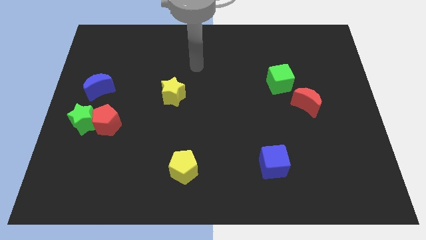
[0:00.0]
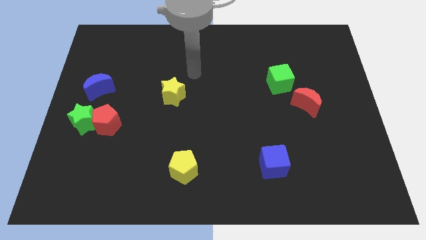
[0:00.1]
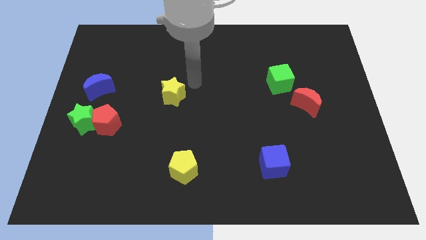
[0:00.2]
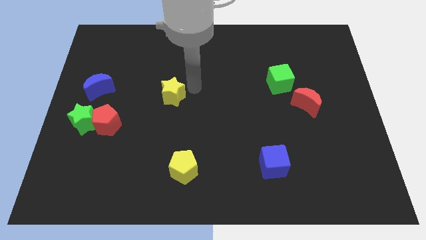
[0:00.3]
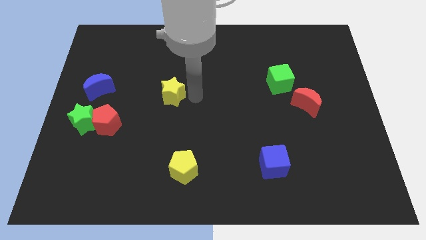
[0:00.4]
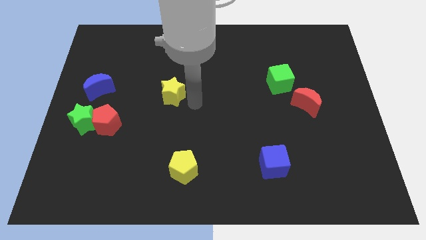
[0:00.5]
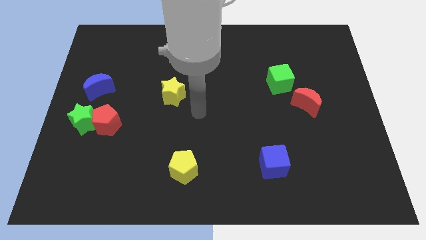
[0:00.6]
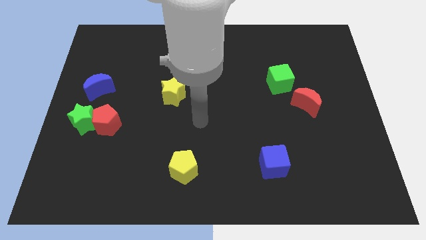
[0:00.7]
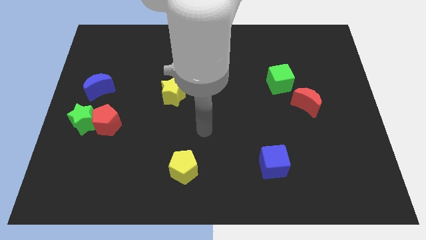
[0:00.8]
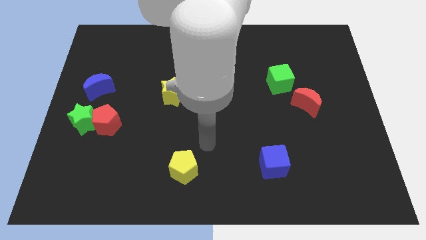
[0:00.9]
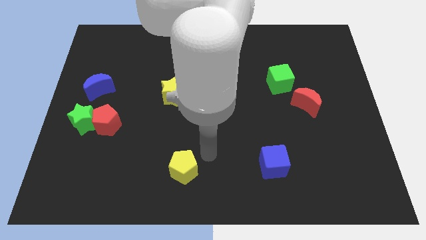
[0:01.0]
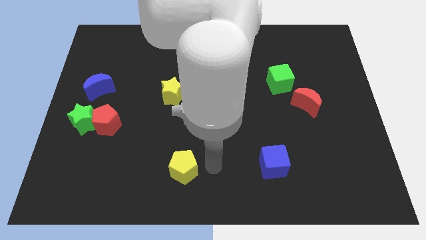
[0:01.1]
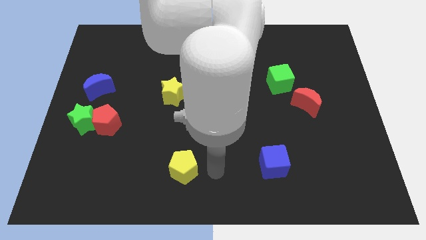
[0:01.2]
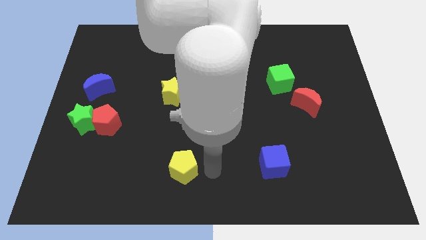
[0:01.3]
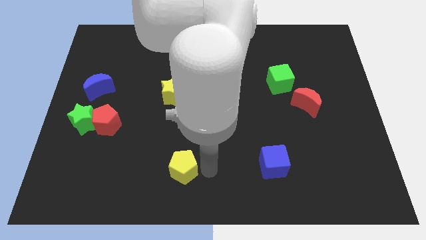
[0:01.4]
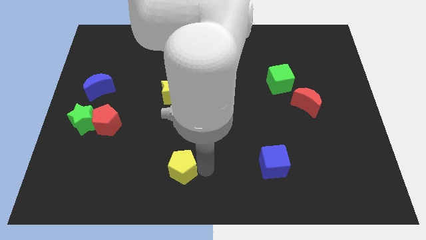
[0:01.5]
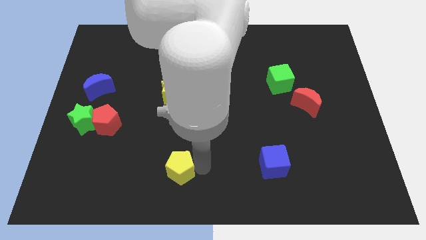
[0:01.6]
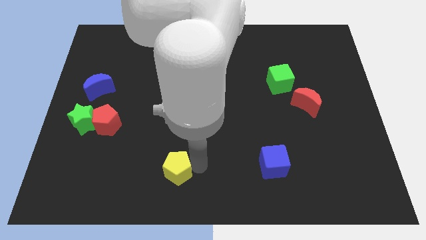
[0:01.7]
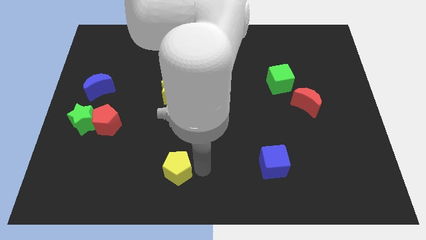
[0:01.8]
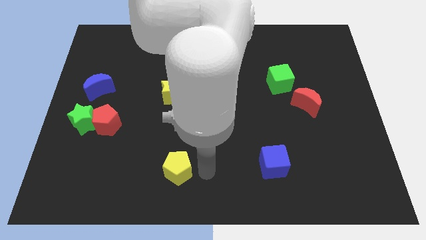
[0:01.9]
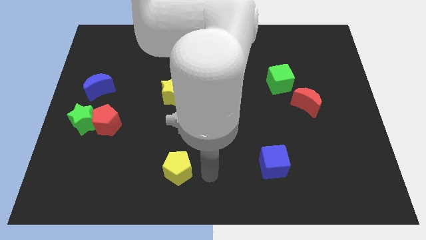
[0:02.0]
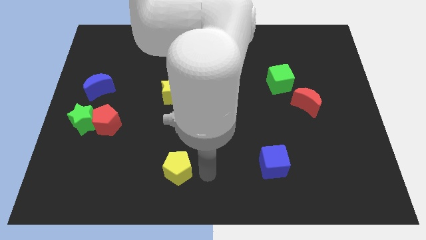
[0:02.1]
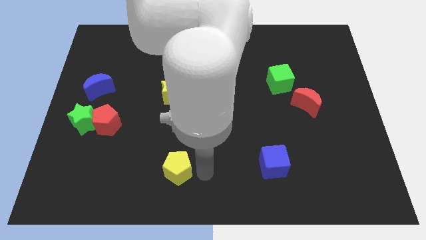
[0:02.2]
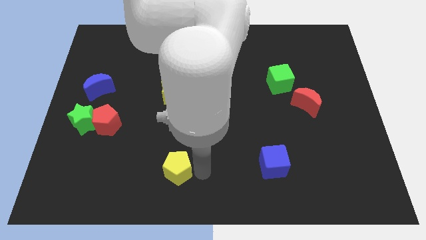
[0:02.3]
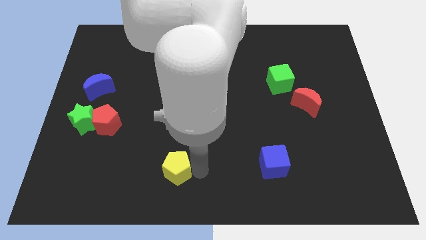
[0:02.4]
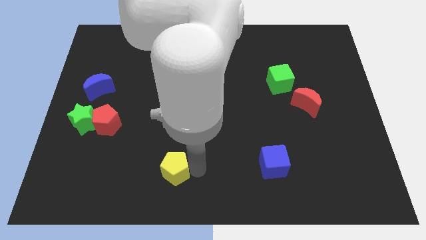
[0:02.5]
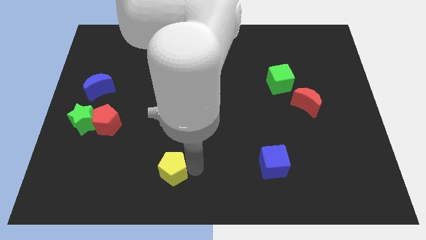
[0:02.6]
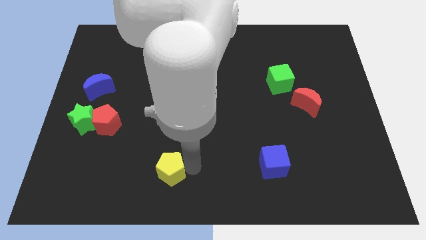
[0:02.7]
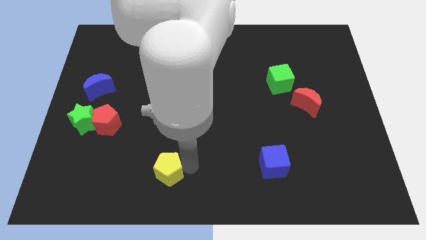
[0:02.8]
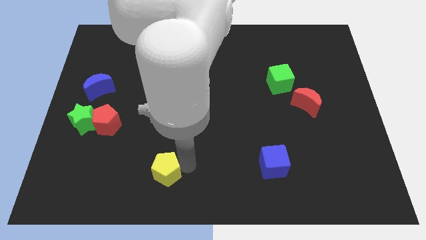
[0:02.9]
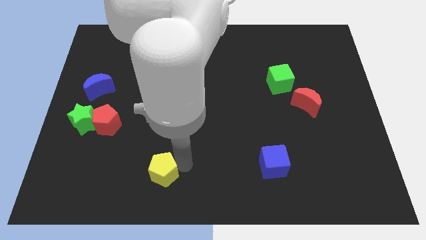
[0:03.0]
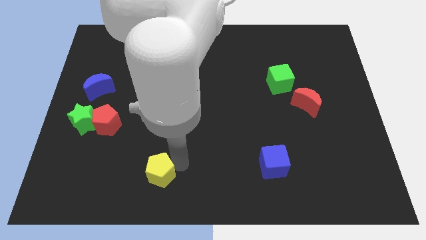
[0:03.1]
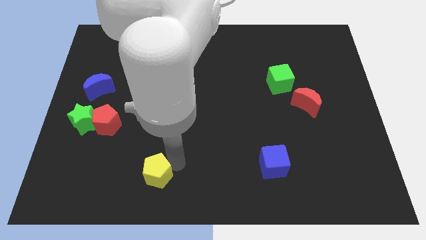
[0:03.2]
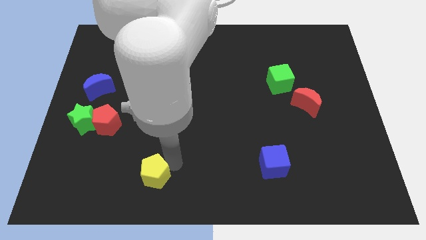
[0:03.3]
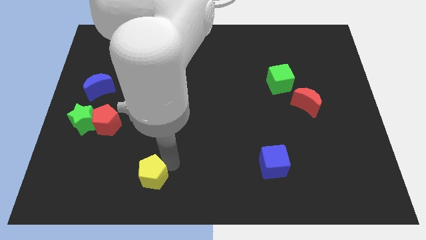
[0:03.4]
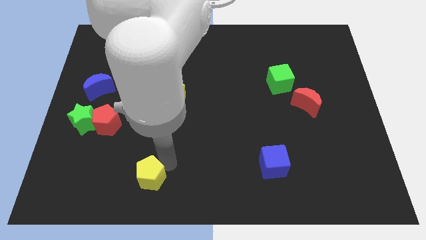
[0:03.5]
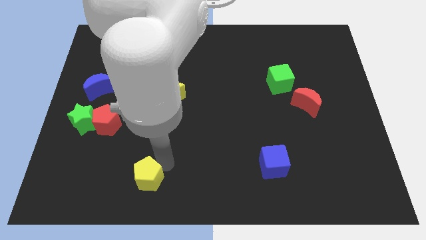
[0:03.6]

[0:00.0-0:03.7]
slightly move the yellow pentagon to the left

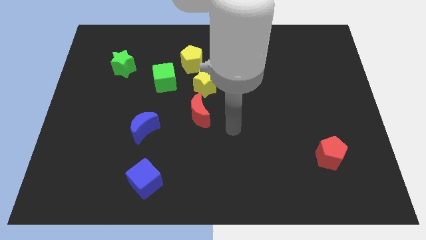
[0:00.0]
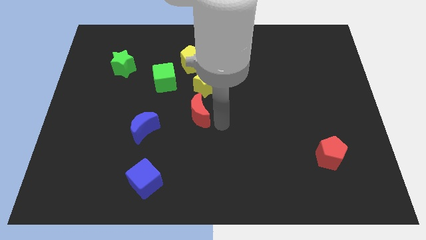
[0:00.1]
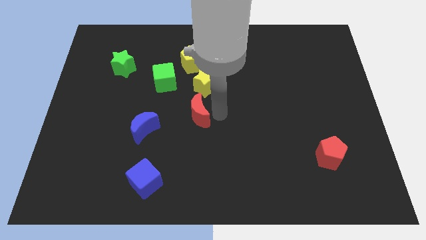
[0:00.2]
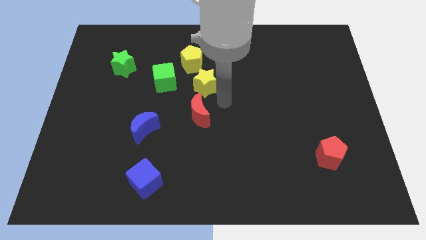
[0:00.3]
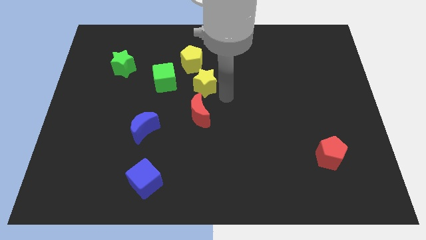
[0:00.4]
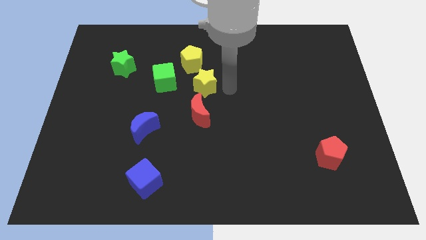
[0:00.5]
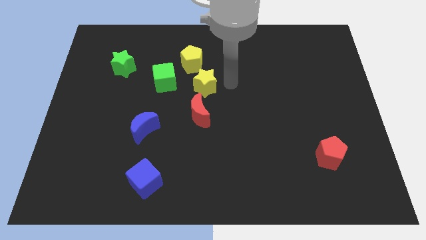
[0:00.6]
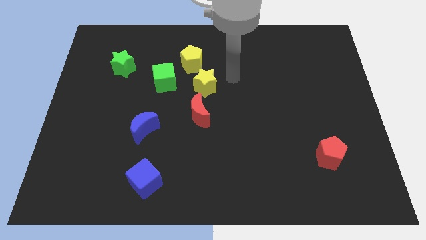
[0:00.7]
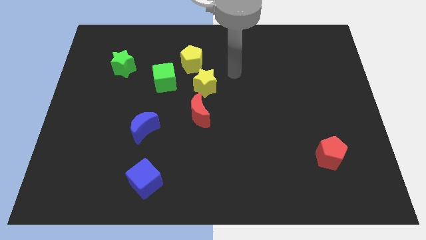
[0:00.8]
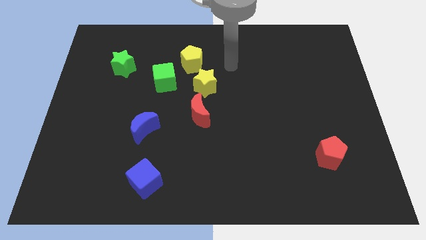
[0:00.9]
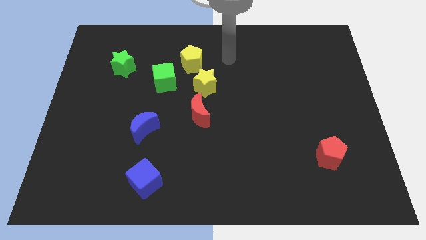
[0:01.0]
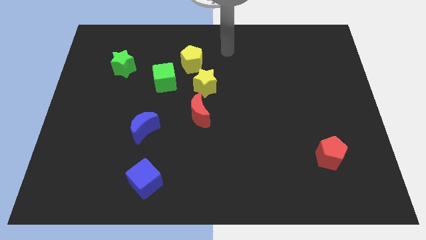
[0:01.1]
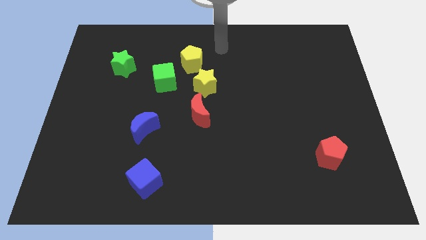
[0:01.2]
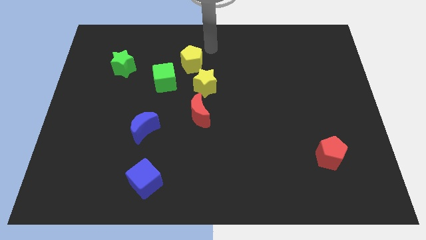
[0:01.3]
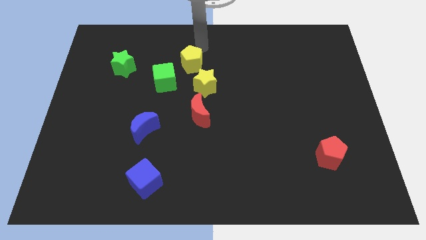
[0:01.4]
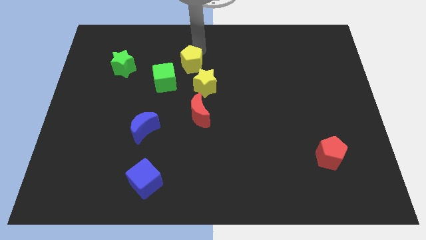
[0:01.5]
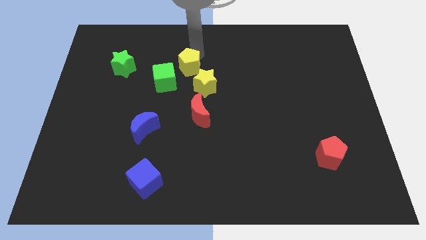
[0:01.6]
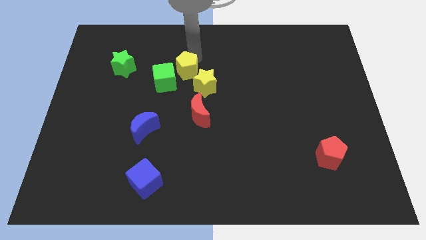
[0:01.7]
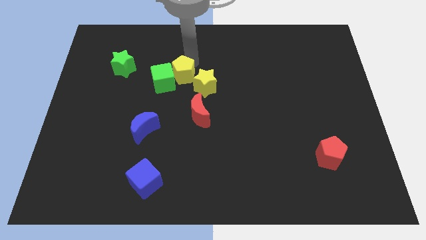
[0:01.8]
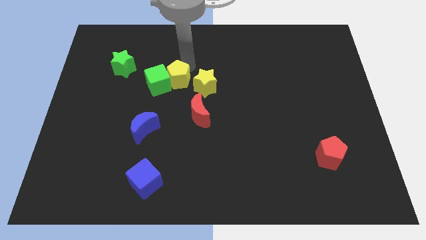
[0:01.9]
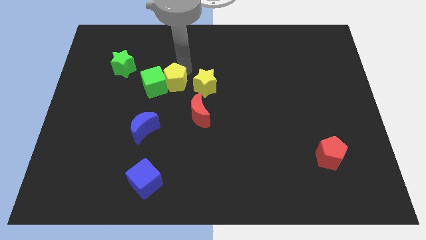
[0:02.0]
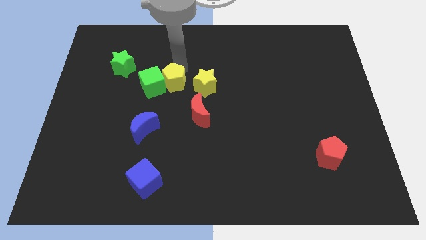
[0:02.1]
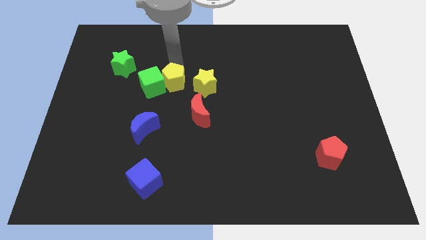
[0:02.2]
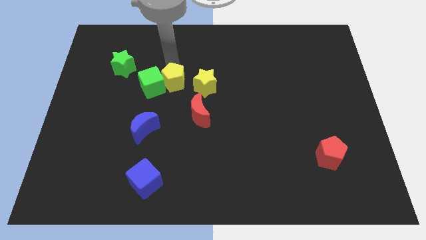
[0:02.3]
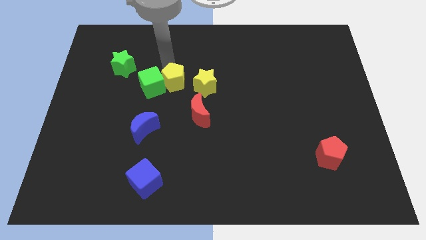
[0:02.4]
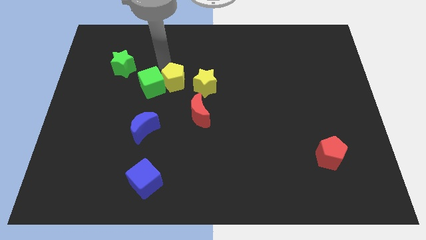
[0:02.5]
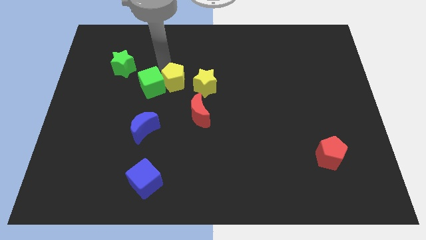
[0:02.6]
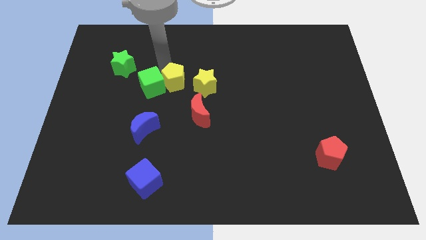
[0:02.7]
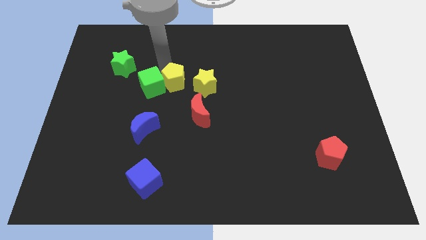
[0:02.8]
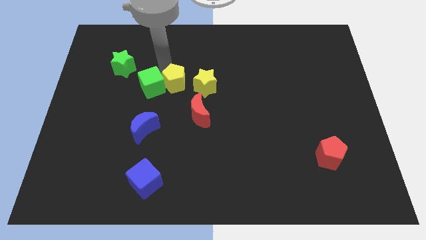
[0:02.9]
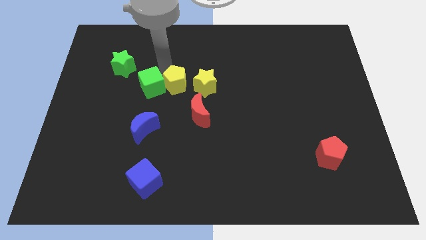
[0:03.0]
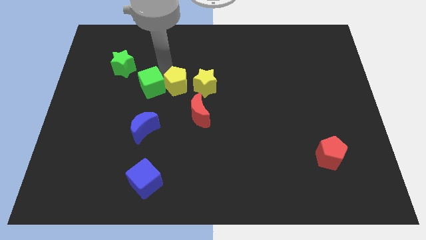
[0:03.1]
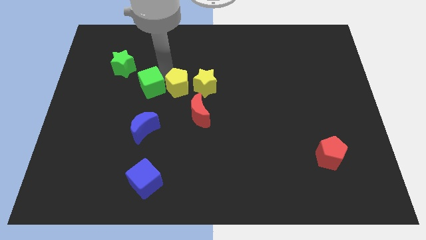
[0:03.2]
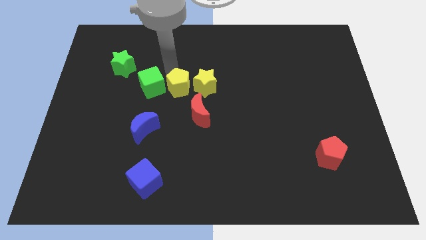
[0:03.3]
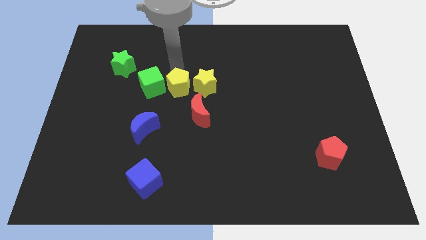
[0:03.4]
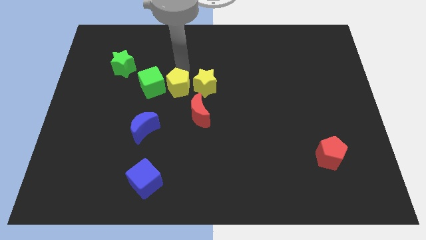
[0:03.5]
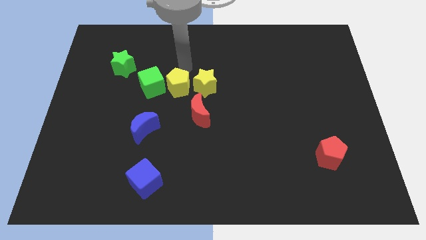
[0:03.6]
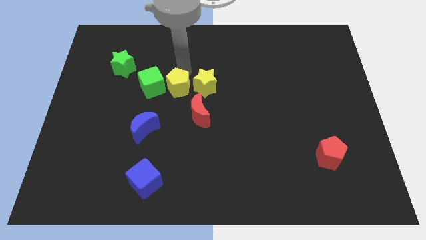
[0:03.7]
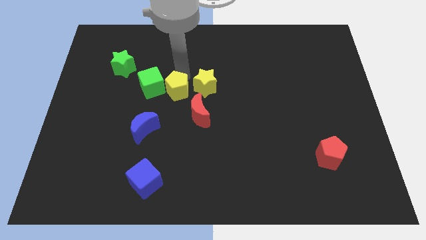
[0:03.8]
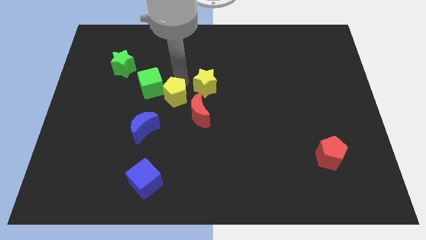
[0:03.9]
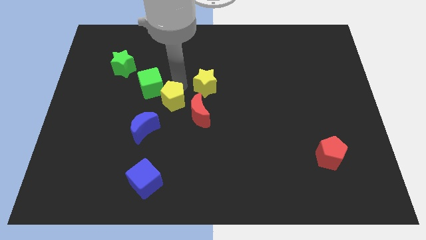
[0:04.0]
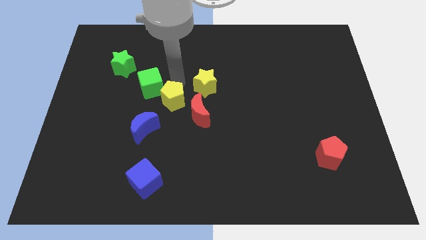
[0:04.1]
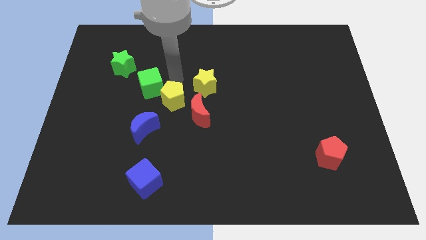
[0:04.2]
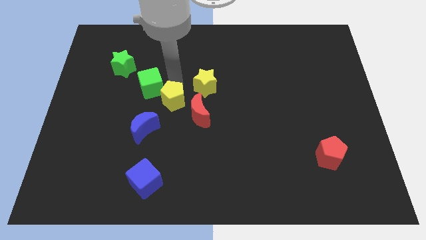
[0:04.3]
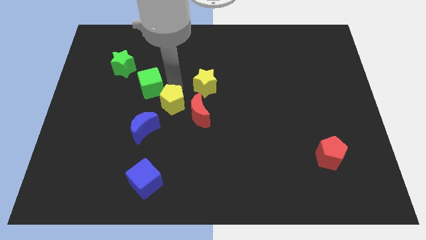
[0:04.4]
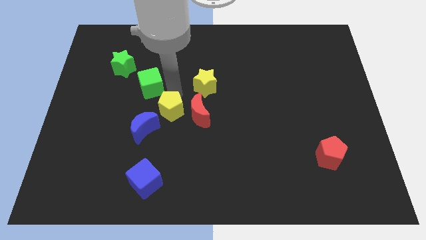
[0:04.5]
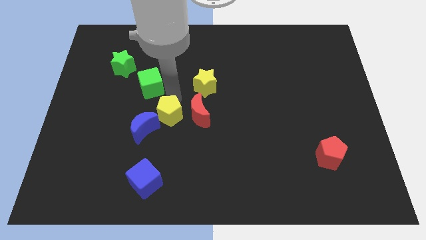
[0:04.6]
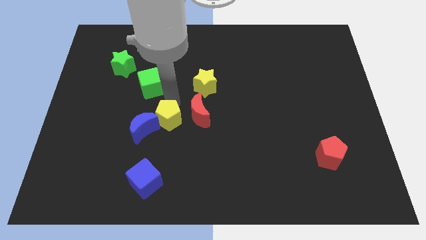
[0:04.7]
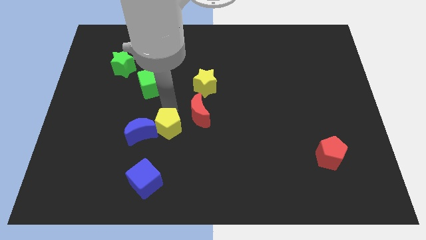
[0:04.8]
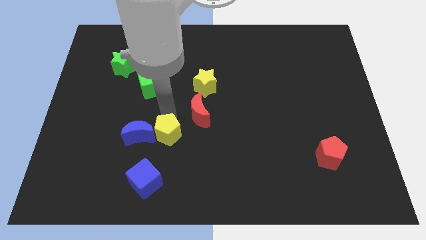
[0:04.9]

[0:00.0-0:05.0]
move the yellow pentagon downwards
